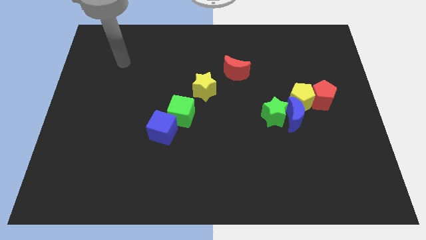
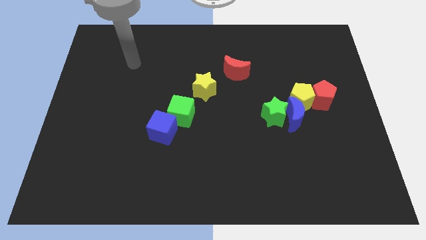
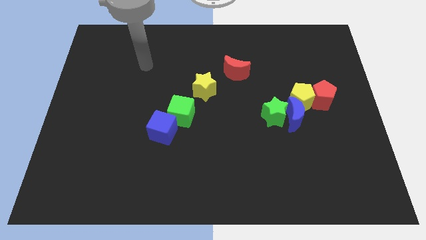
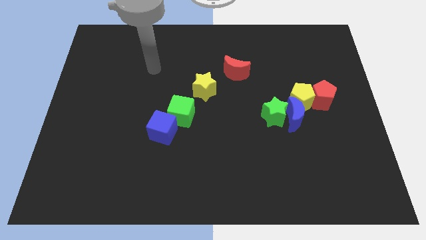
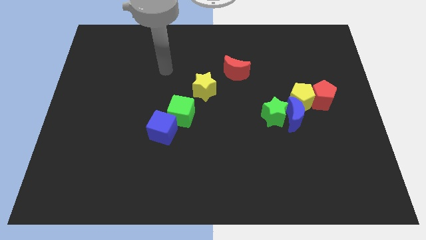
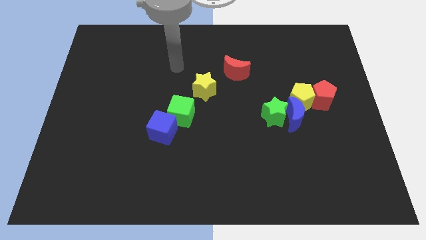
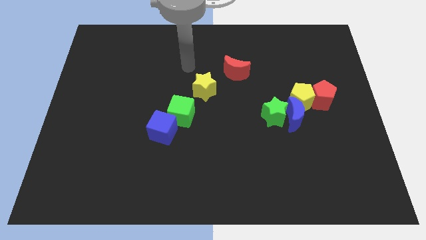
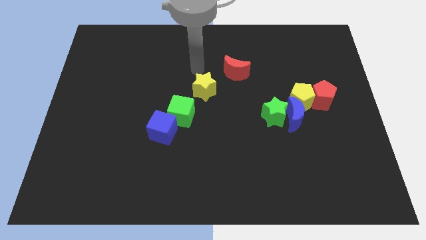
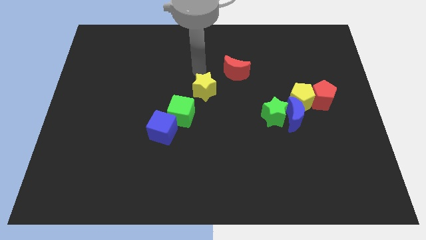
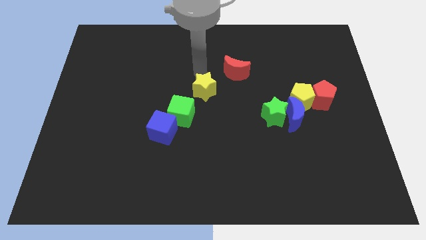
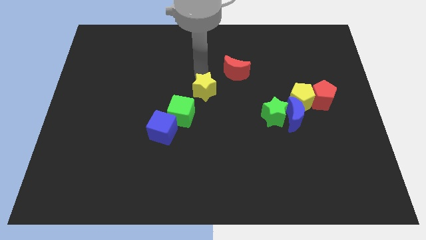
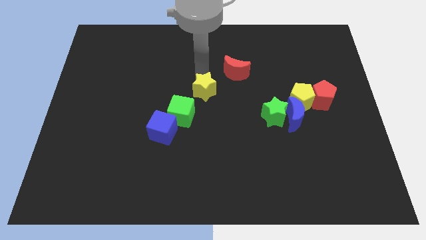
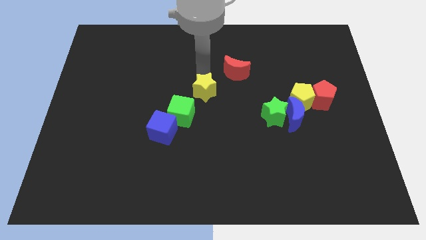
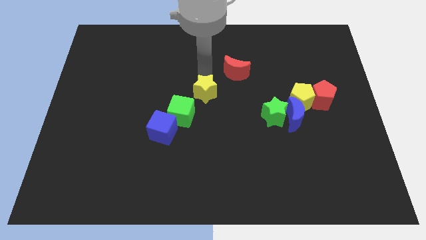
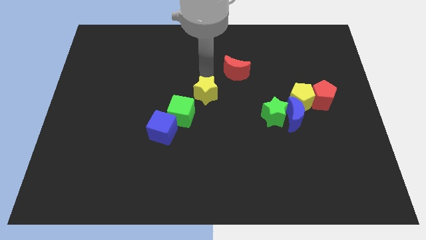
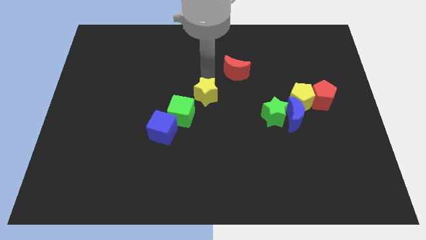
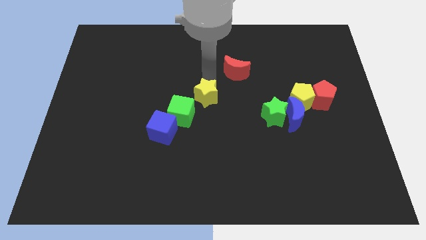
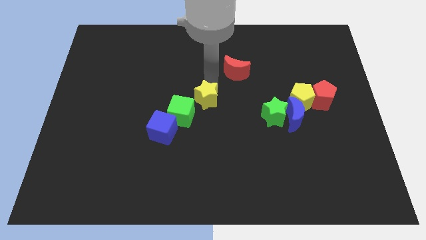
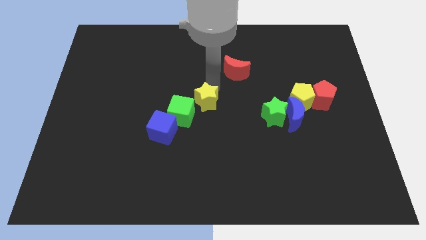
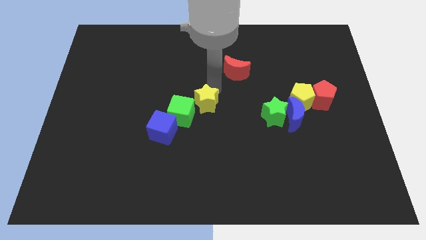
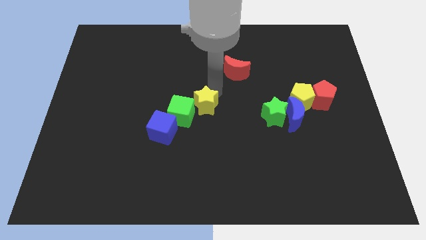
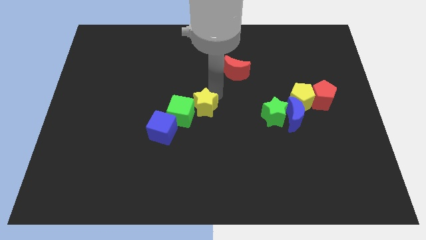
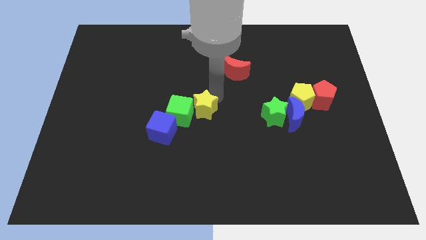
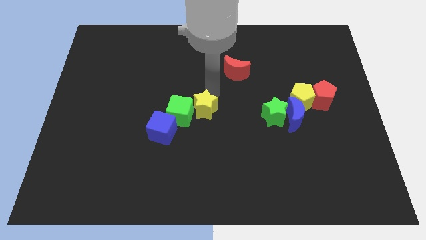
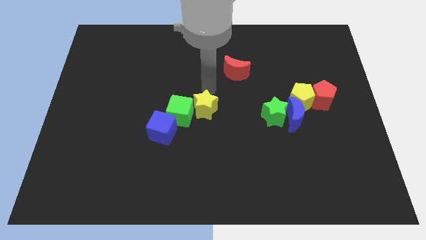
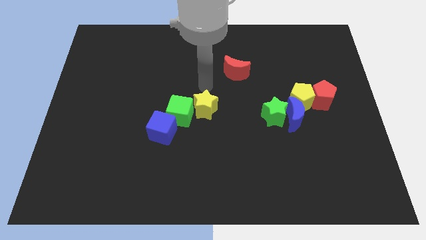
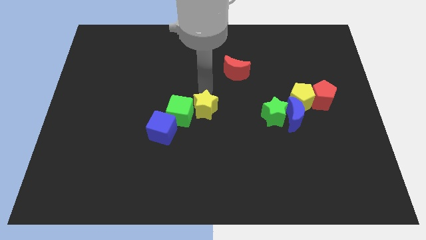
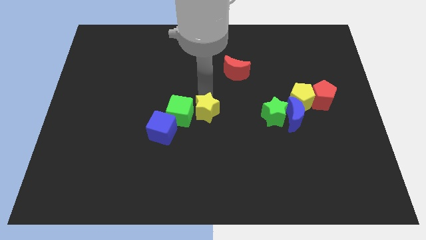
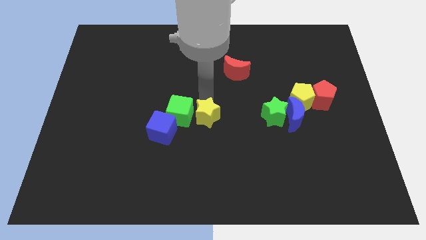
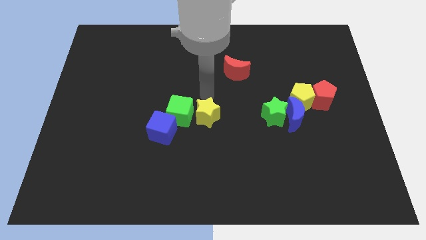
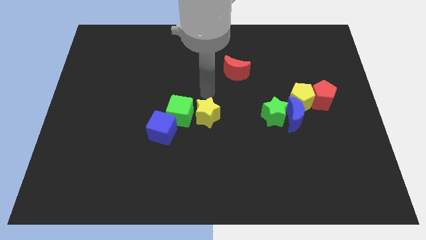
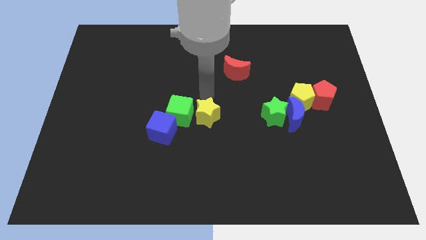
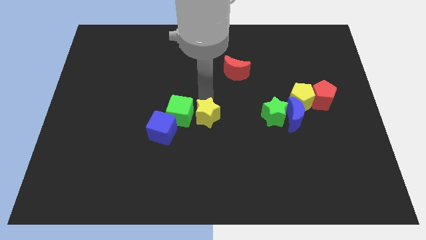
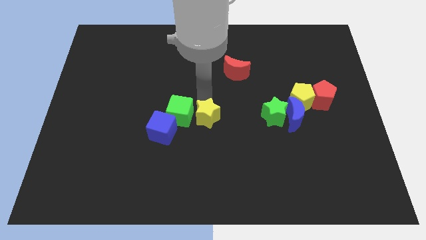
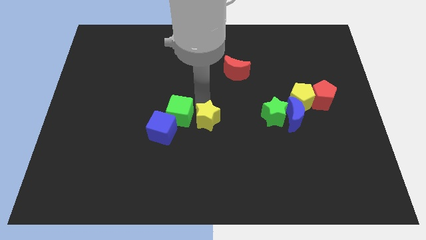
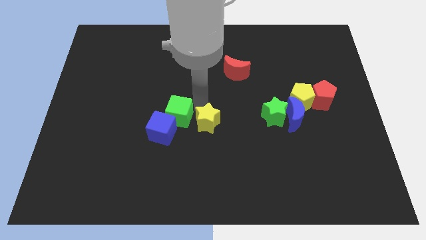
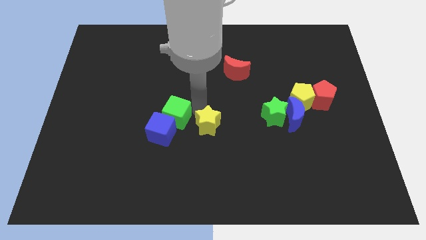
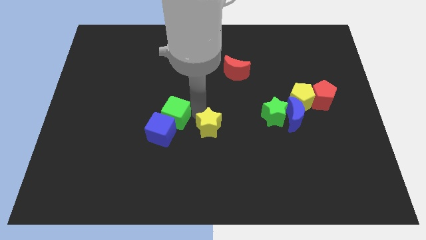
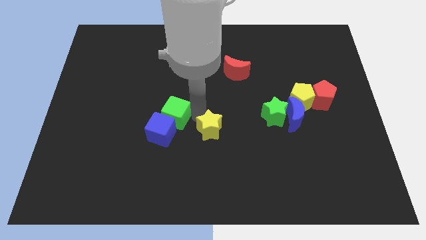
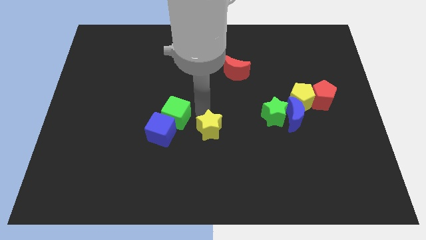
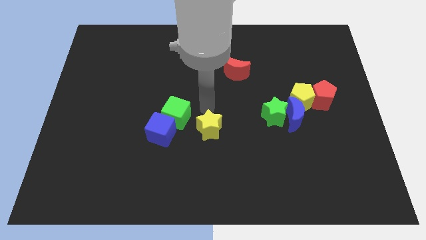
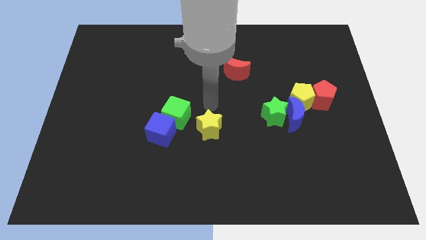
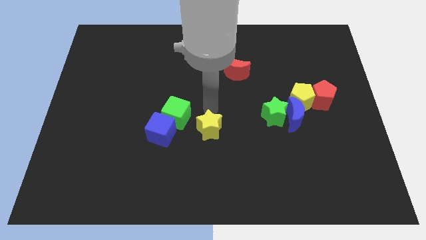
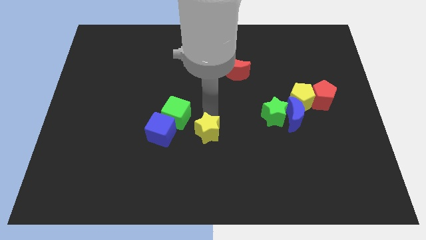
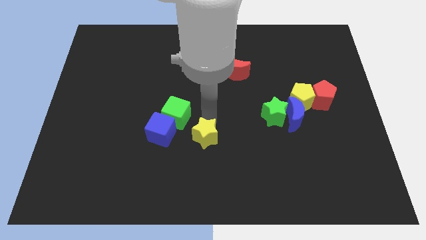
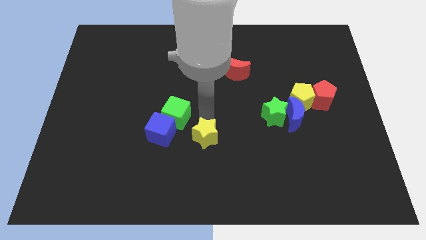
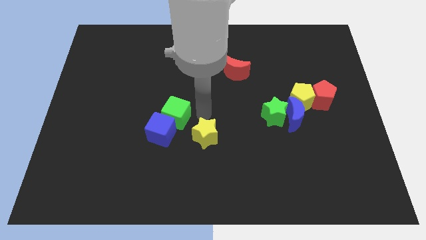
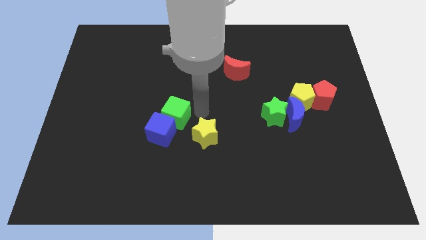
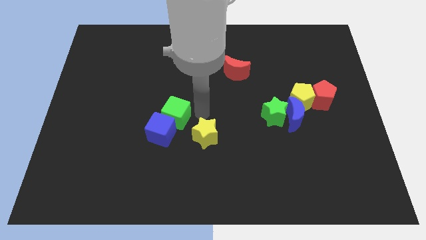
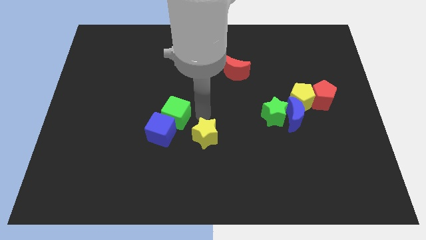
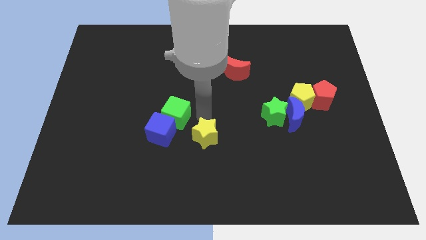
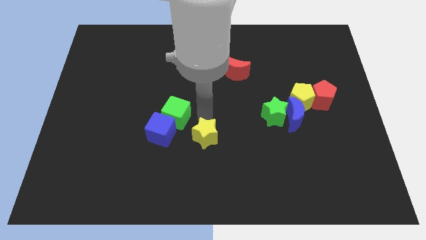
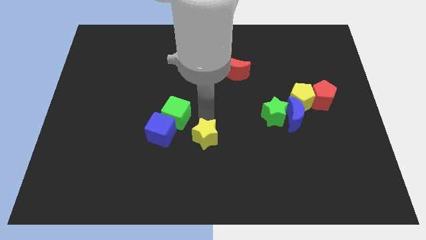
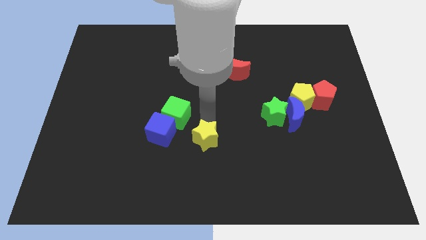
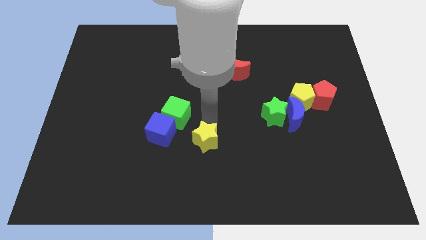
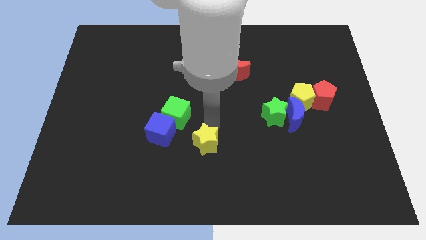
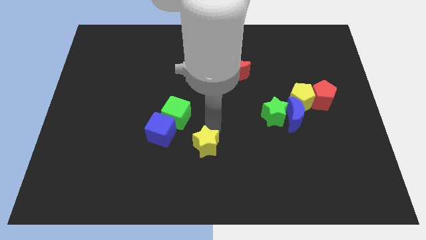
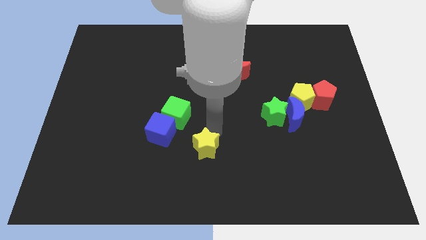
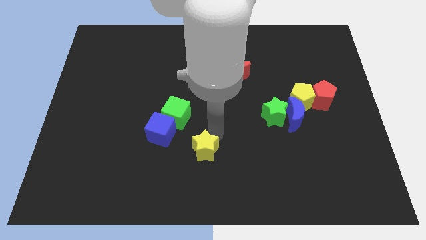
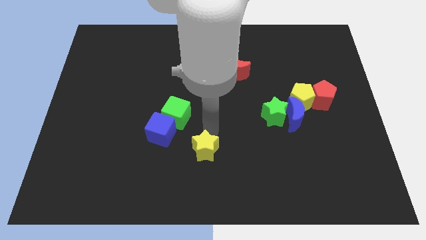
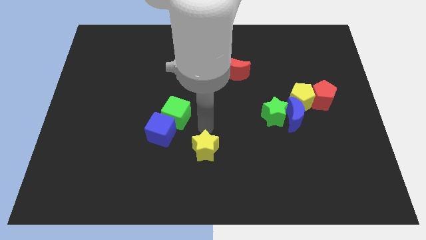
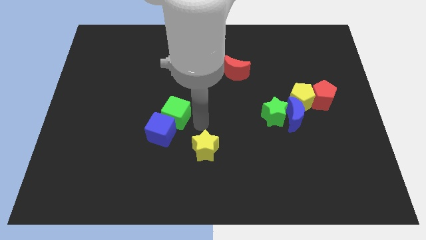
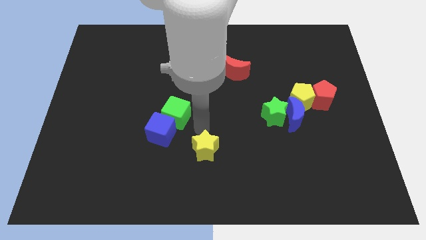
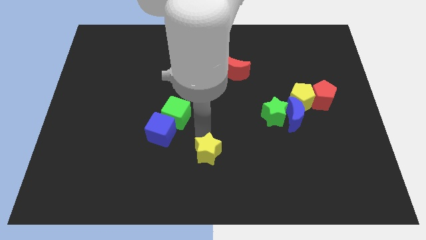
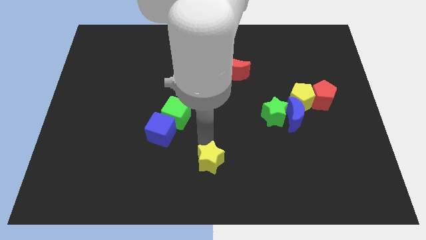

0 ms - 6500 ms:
put the yellow star to the bottom side

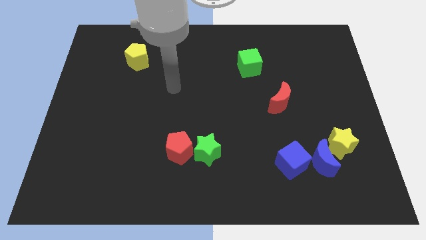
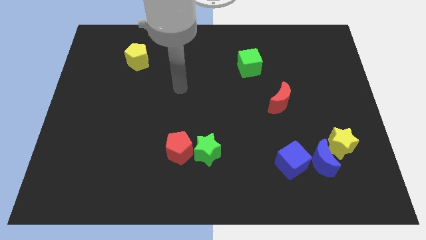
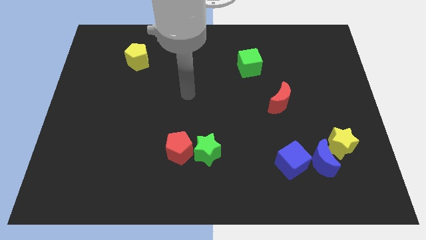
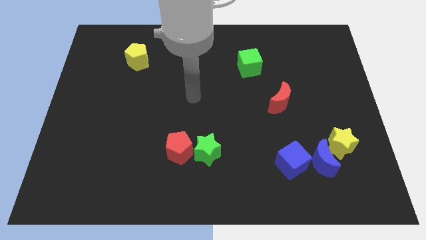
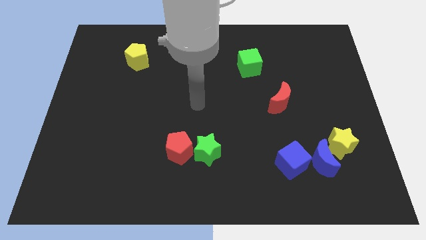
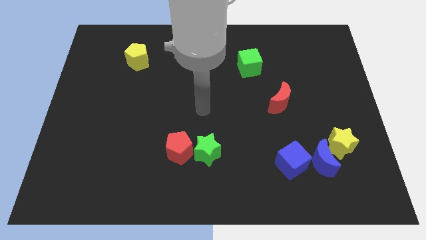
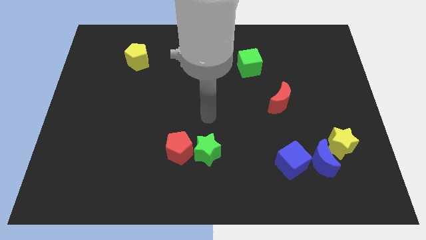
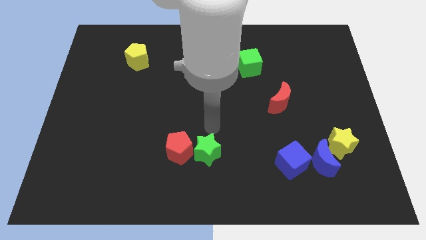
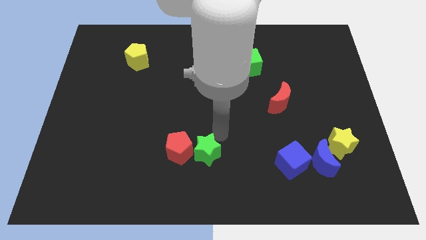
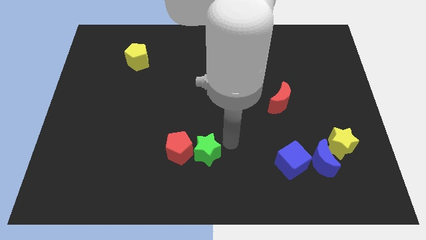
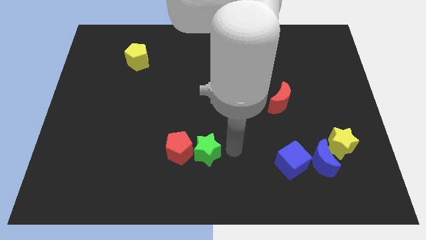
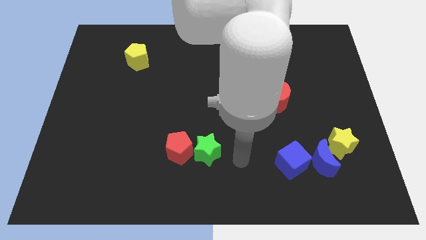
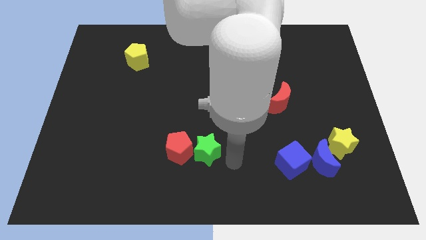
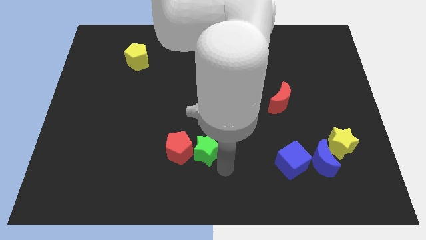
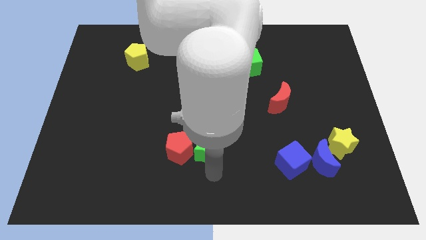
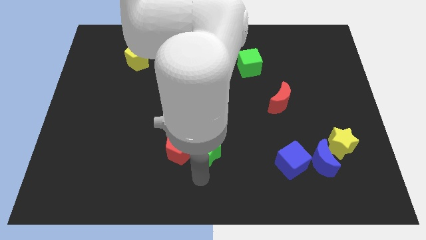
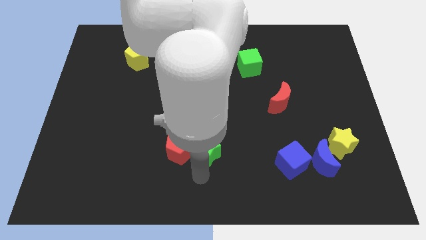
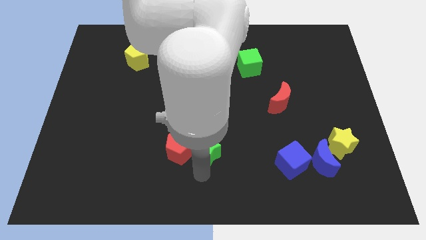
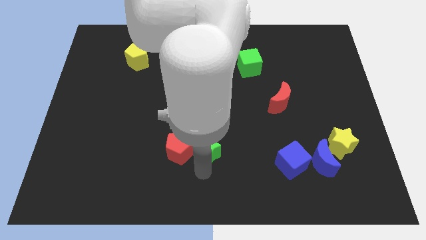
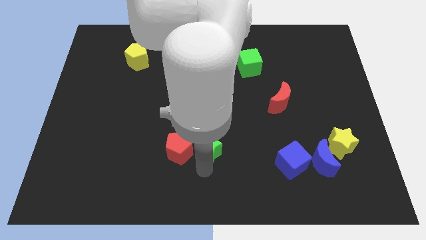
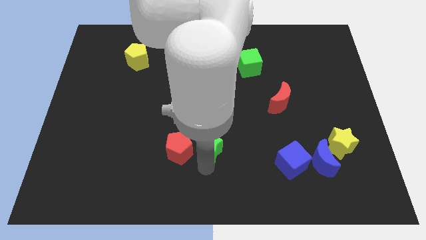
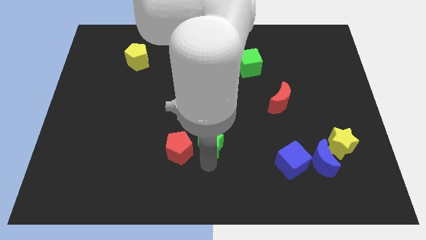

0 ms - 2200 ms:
push the green star to the center
